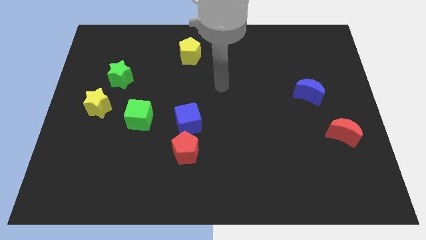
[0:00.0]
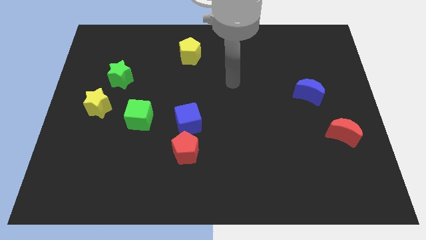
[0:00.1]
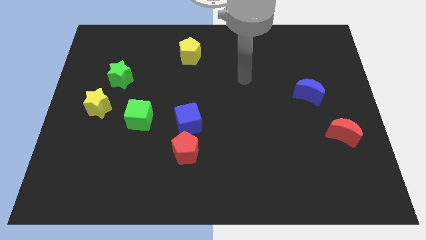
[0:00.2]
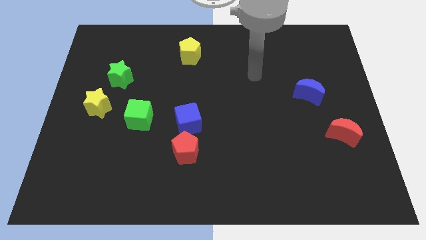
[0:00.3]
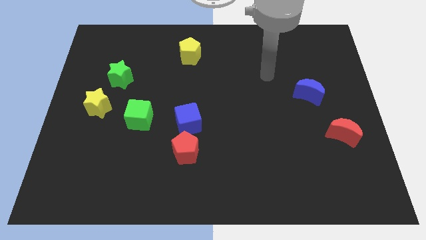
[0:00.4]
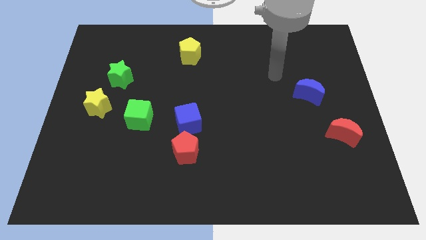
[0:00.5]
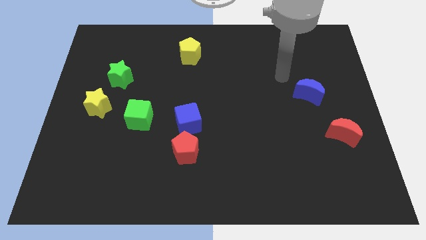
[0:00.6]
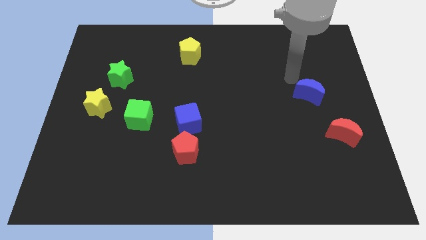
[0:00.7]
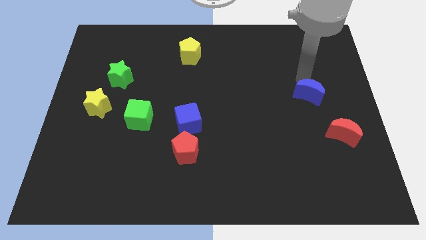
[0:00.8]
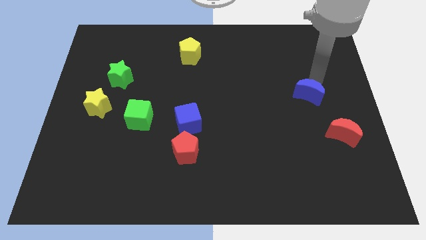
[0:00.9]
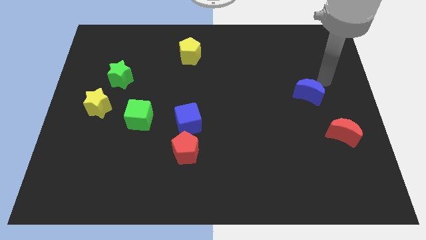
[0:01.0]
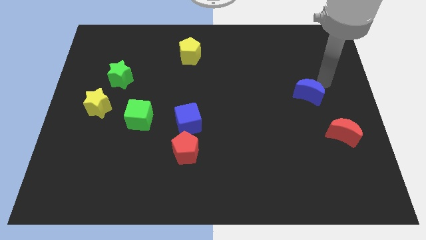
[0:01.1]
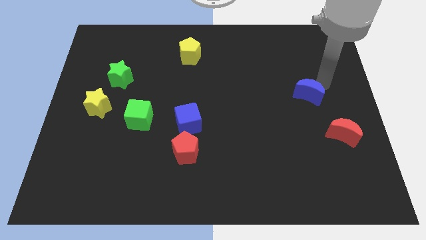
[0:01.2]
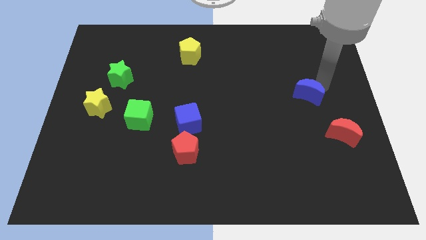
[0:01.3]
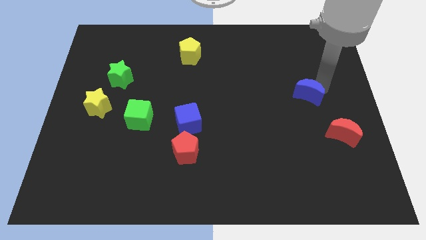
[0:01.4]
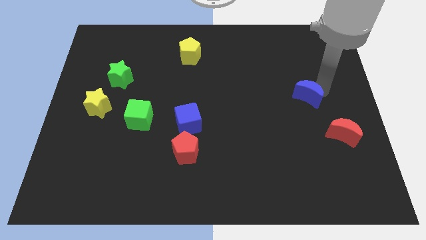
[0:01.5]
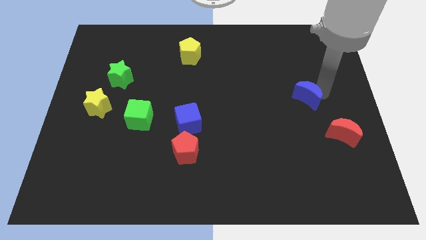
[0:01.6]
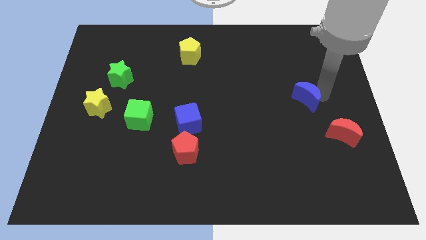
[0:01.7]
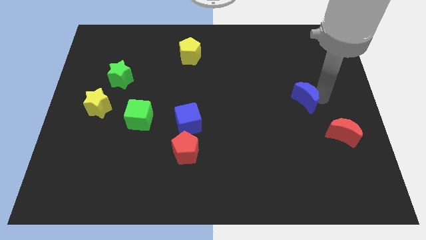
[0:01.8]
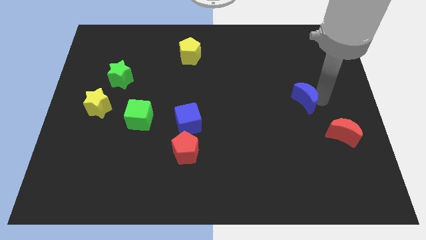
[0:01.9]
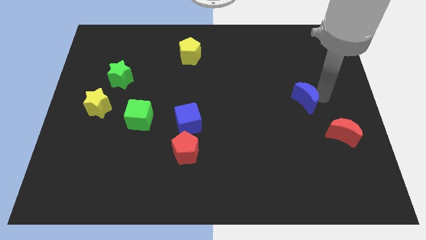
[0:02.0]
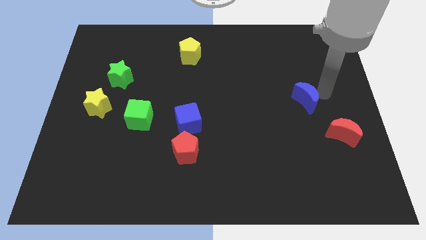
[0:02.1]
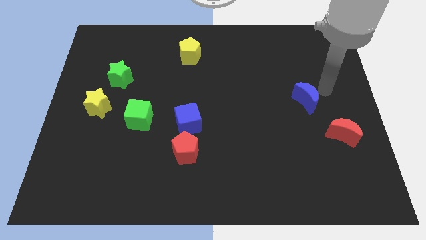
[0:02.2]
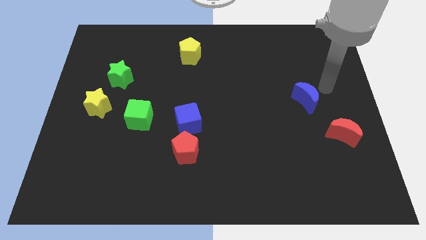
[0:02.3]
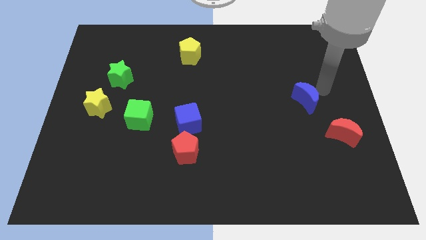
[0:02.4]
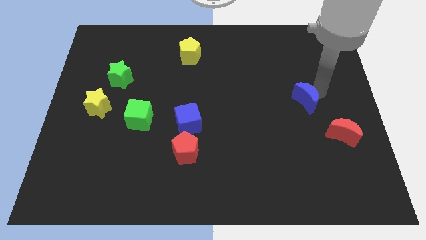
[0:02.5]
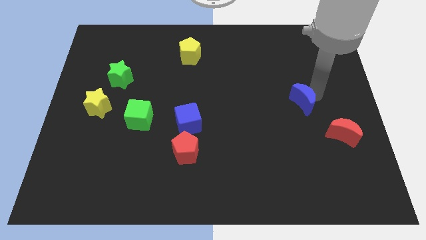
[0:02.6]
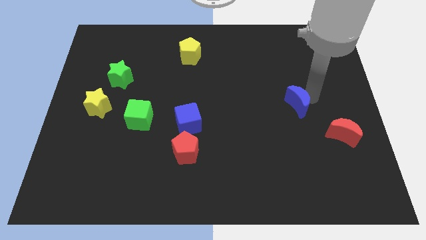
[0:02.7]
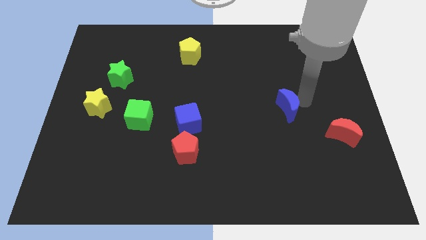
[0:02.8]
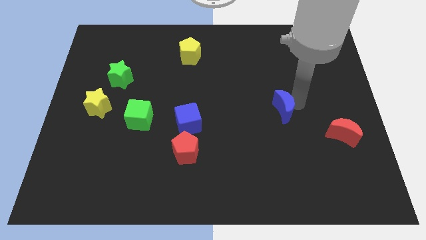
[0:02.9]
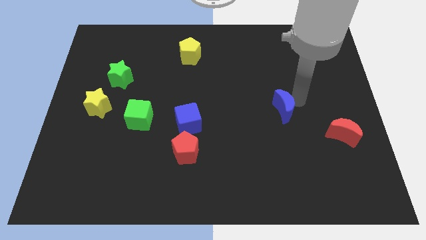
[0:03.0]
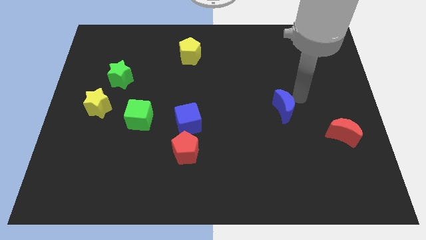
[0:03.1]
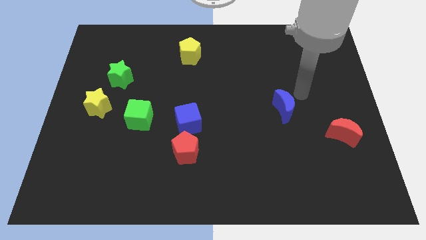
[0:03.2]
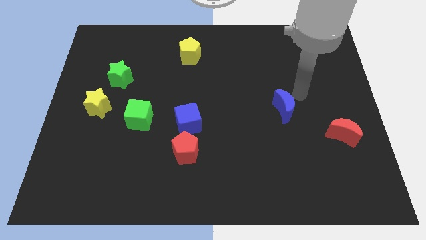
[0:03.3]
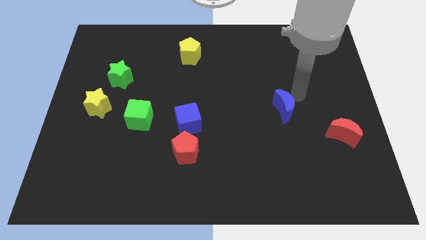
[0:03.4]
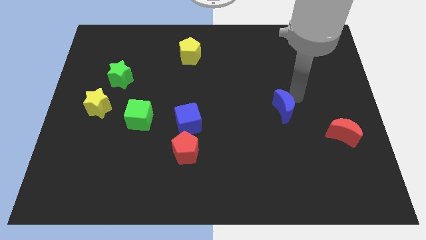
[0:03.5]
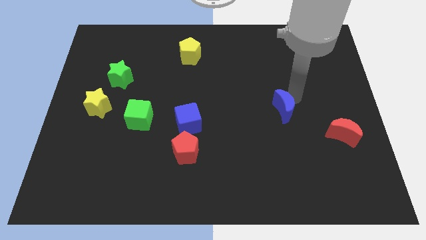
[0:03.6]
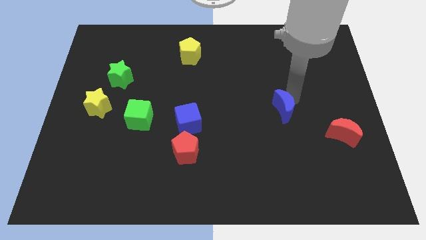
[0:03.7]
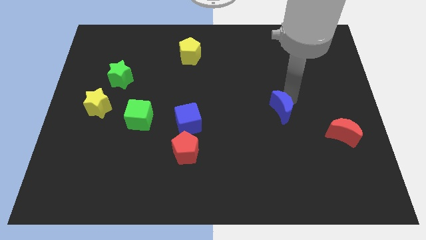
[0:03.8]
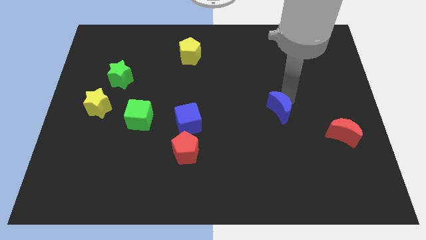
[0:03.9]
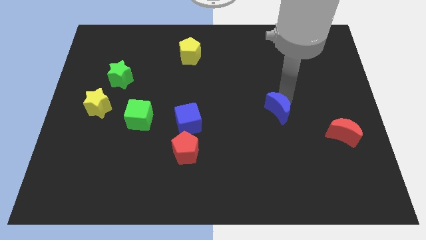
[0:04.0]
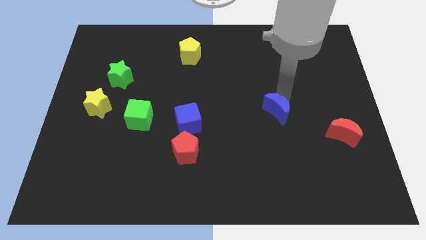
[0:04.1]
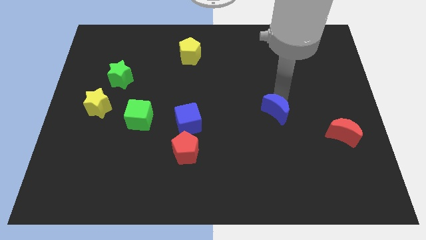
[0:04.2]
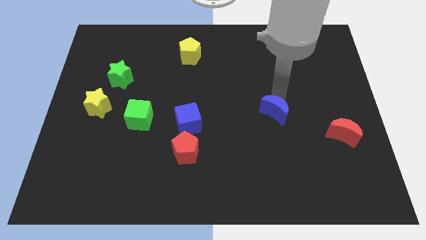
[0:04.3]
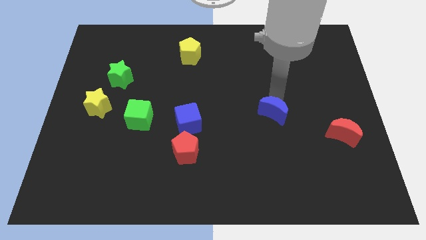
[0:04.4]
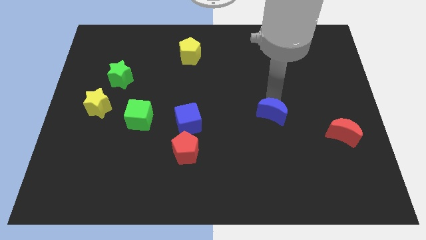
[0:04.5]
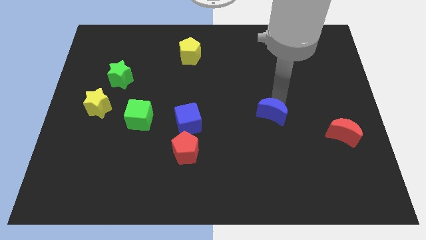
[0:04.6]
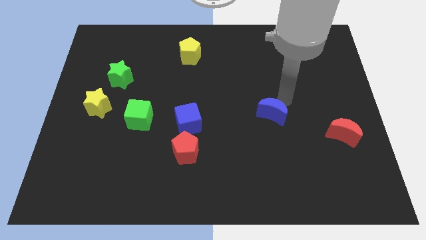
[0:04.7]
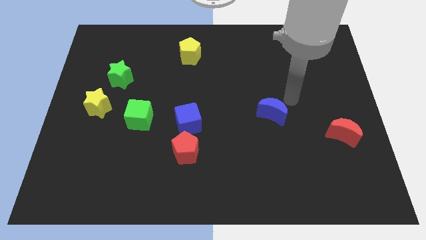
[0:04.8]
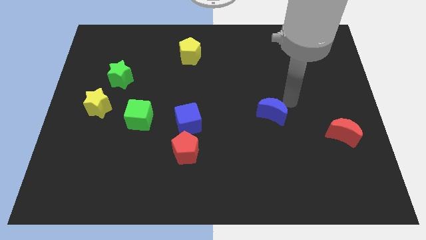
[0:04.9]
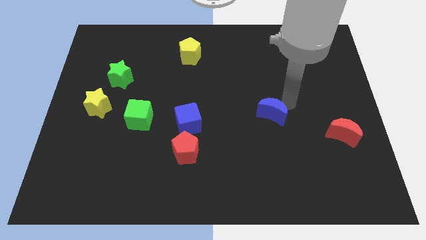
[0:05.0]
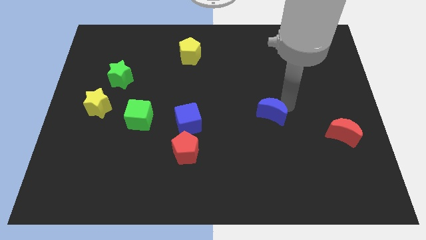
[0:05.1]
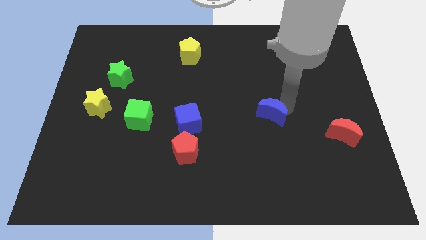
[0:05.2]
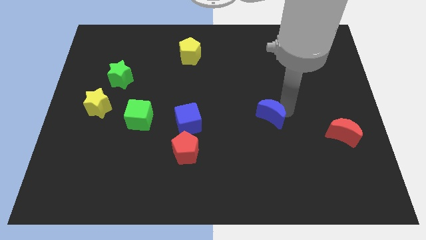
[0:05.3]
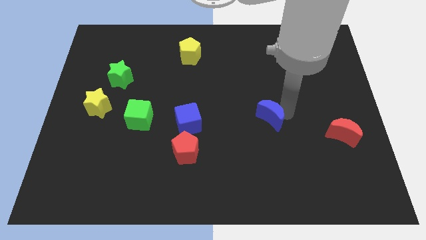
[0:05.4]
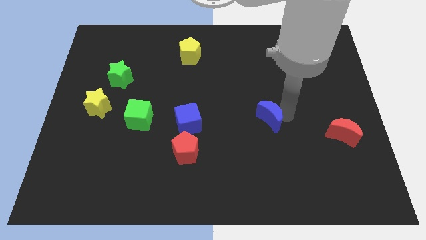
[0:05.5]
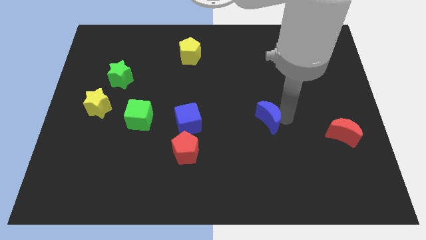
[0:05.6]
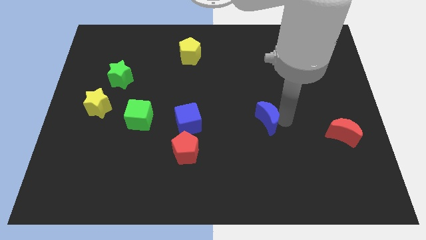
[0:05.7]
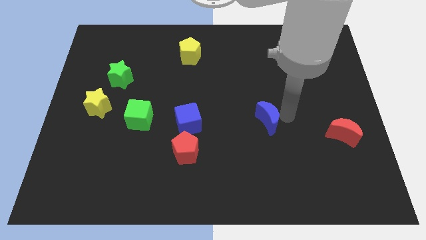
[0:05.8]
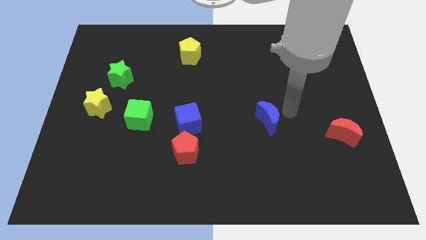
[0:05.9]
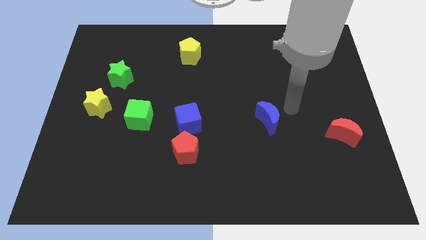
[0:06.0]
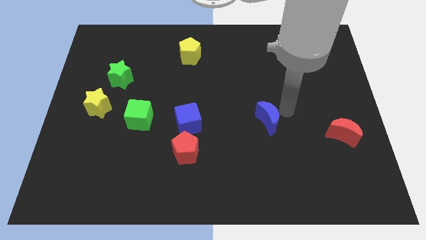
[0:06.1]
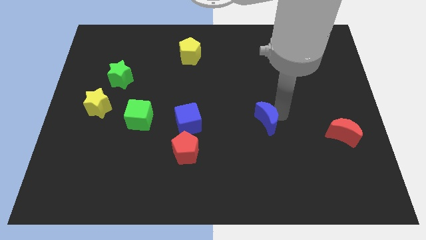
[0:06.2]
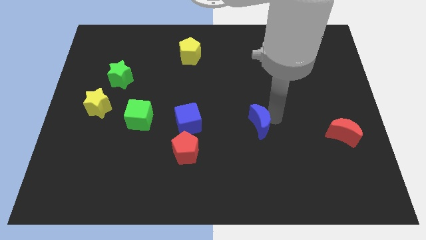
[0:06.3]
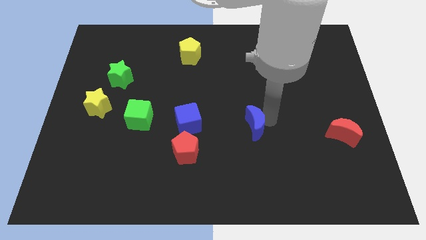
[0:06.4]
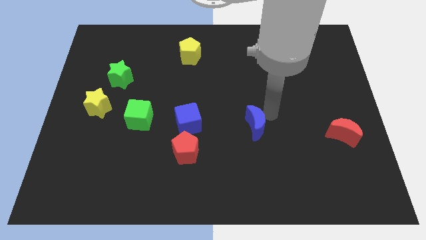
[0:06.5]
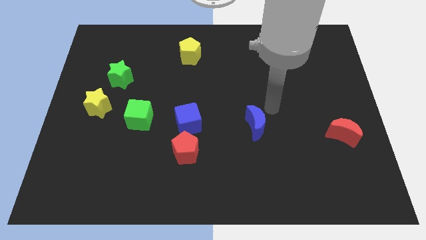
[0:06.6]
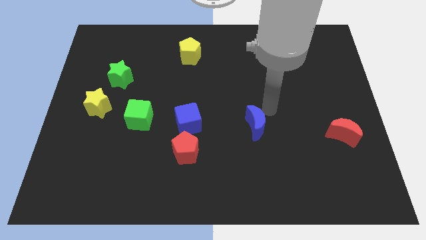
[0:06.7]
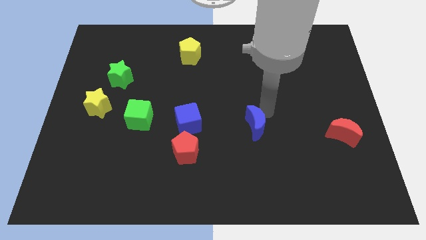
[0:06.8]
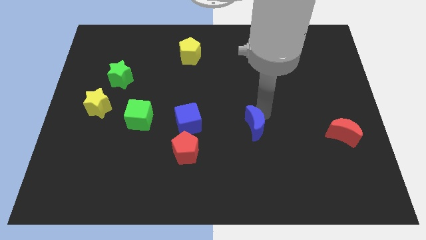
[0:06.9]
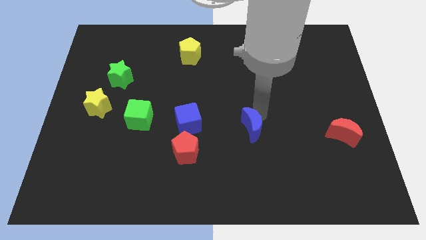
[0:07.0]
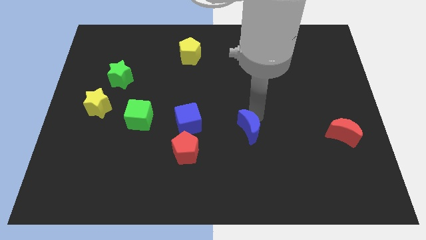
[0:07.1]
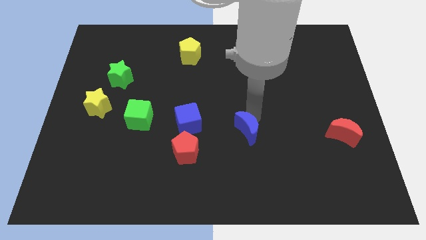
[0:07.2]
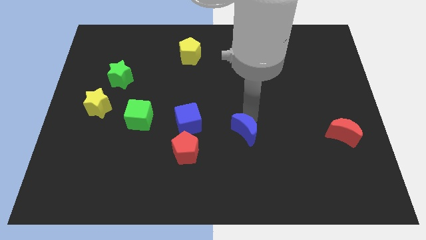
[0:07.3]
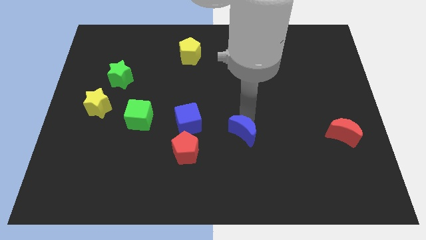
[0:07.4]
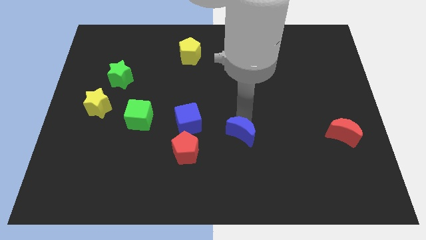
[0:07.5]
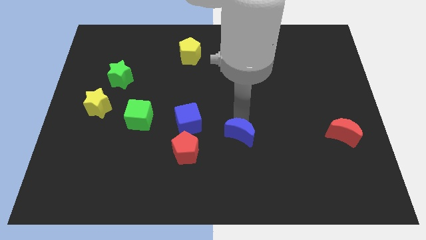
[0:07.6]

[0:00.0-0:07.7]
push the blue moon down and then left

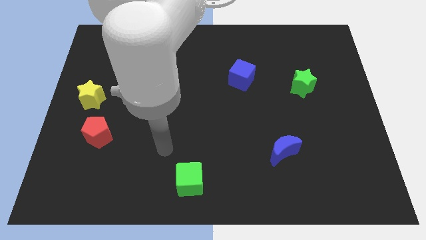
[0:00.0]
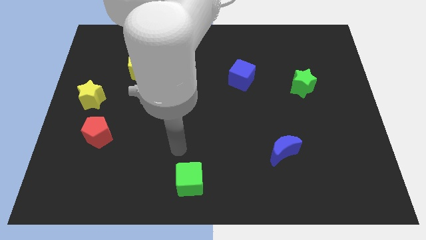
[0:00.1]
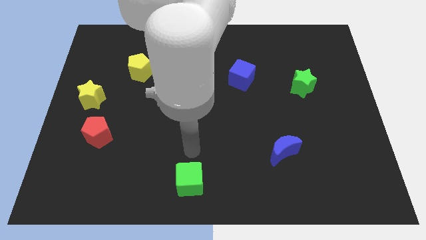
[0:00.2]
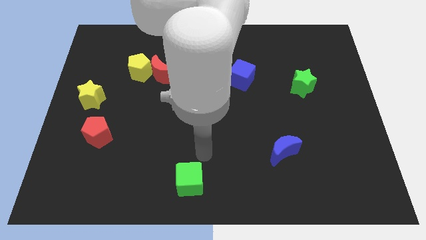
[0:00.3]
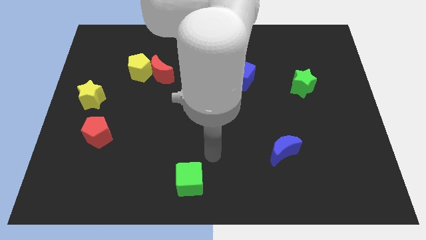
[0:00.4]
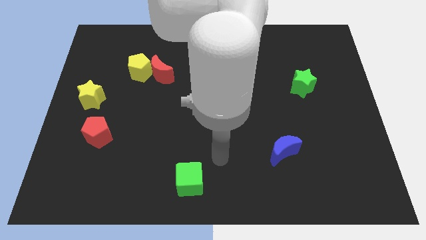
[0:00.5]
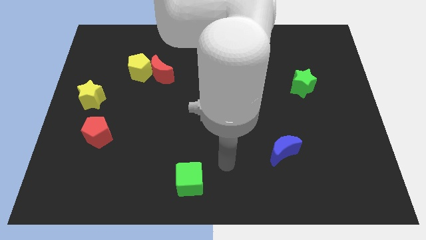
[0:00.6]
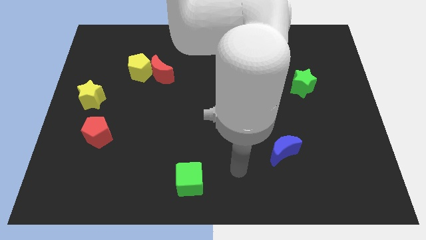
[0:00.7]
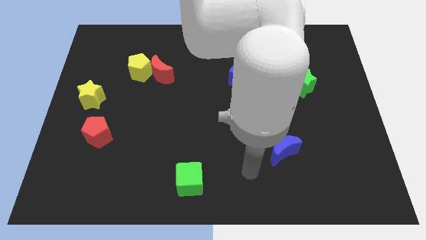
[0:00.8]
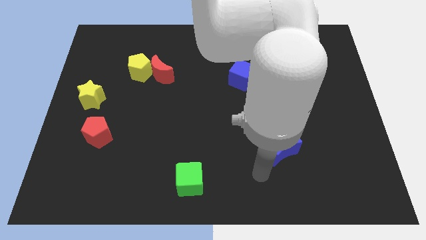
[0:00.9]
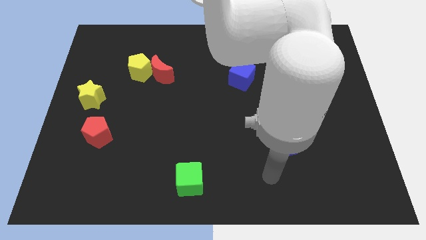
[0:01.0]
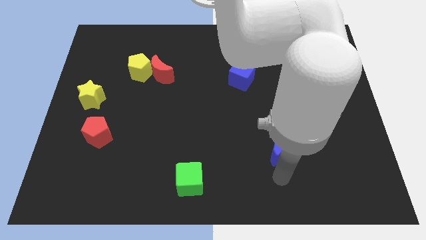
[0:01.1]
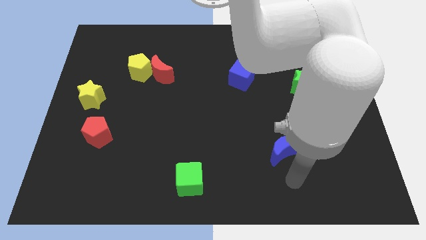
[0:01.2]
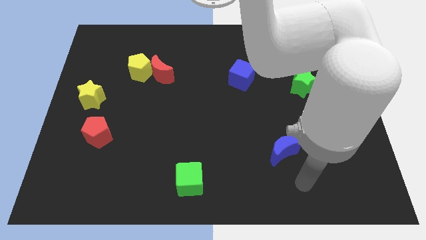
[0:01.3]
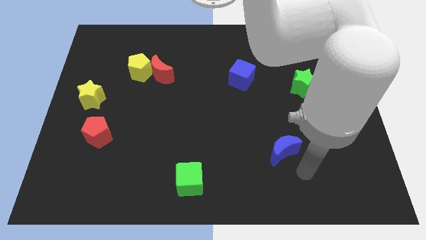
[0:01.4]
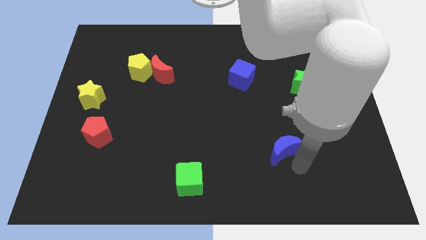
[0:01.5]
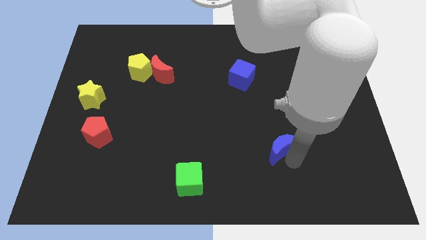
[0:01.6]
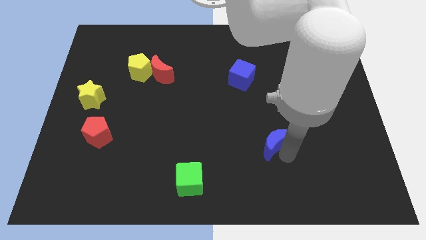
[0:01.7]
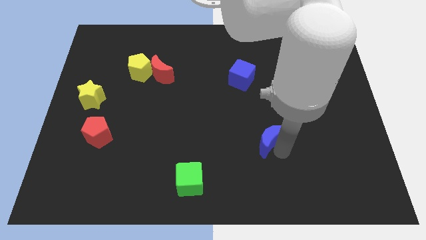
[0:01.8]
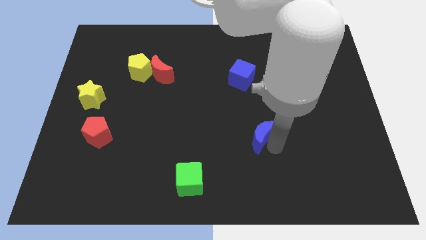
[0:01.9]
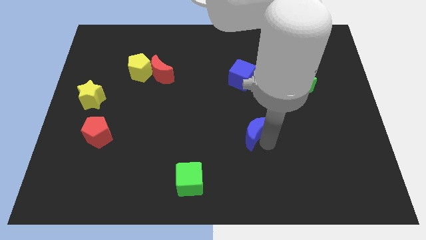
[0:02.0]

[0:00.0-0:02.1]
slide the blue moon a little diagonally up and left
